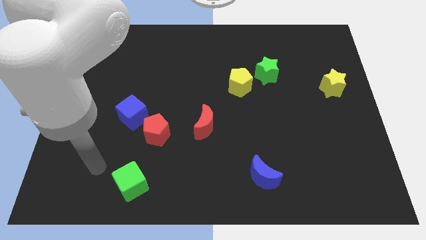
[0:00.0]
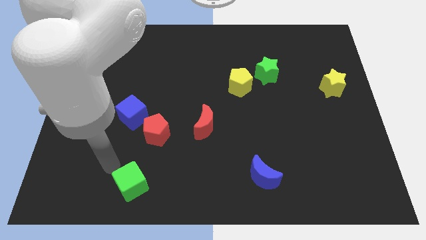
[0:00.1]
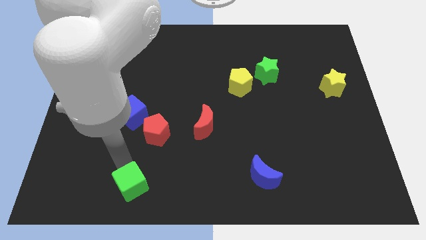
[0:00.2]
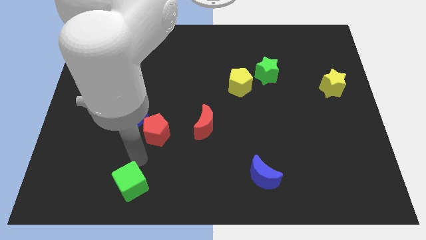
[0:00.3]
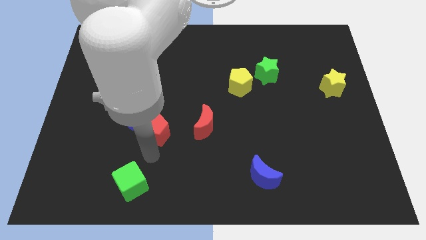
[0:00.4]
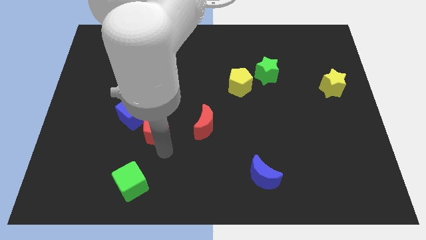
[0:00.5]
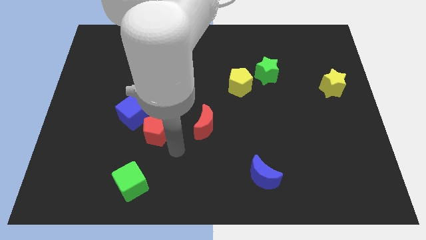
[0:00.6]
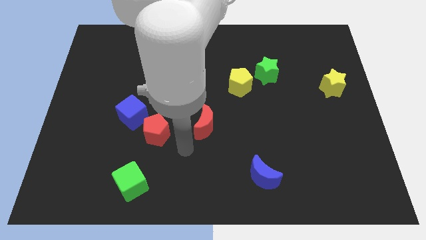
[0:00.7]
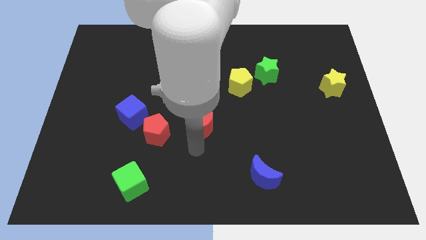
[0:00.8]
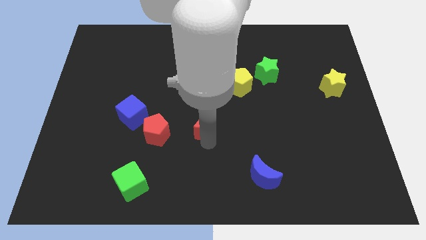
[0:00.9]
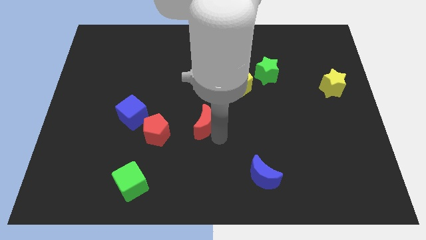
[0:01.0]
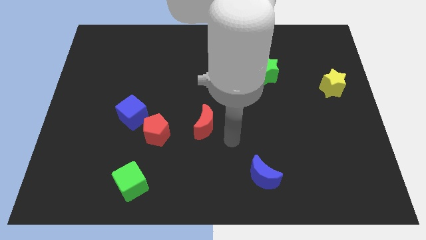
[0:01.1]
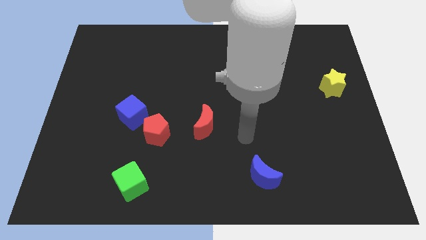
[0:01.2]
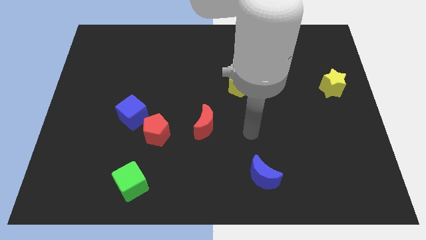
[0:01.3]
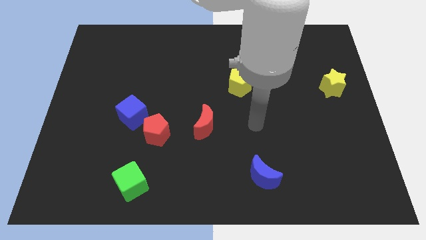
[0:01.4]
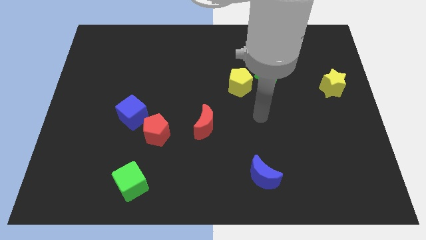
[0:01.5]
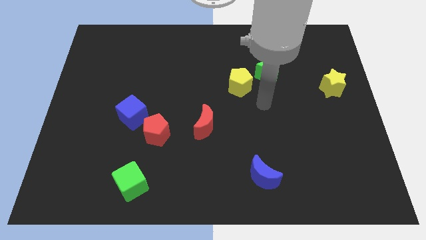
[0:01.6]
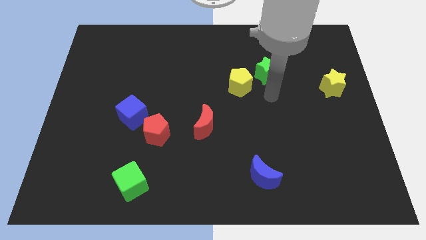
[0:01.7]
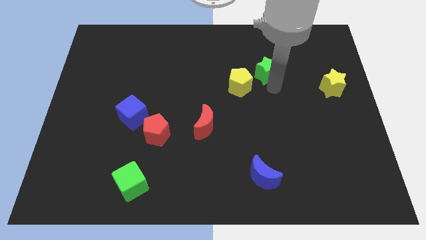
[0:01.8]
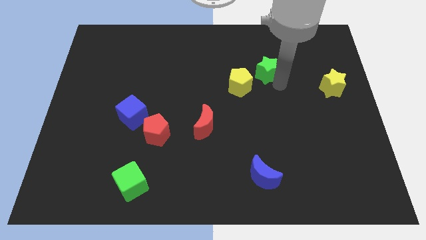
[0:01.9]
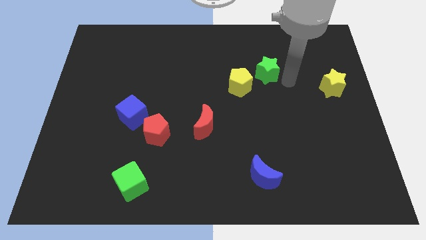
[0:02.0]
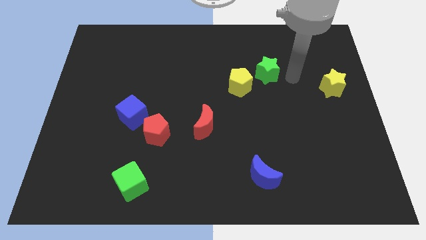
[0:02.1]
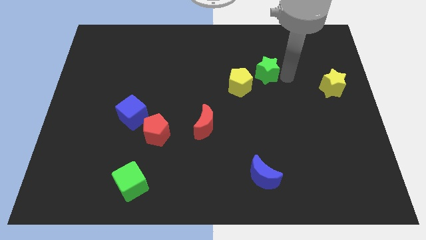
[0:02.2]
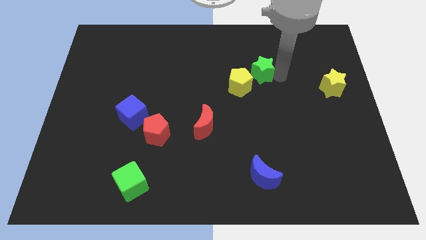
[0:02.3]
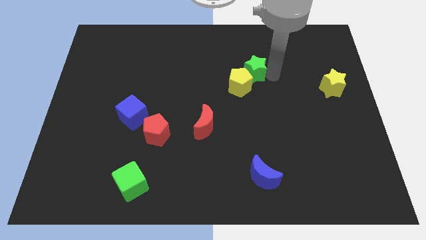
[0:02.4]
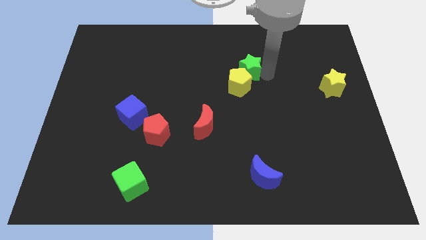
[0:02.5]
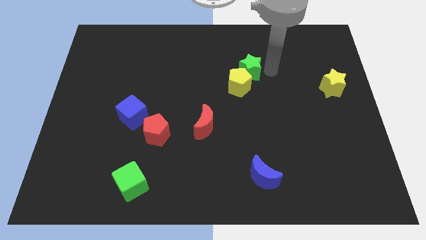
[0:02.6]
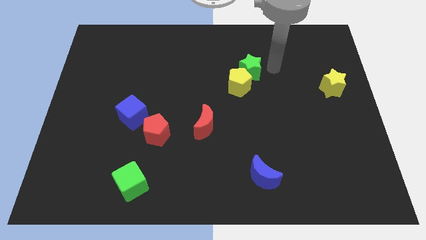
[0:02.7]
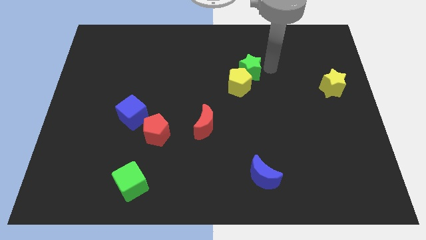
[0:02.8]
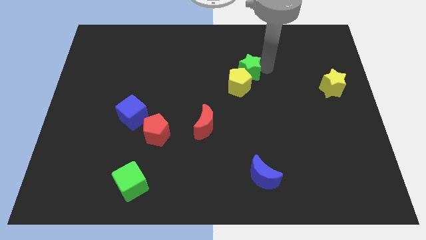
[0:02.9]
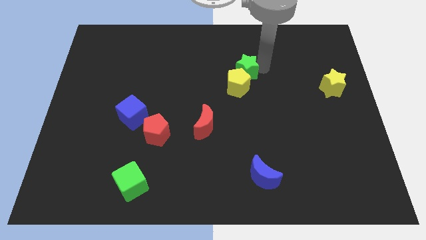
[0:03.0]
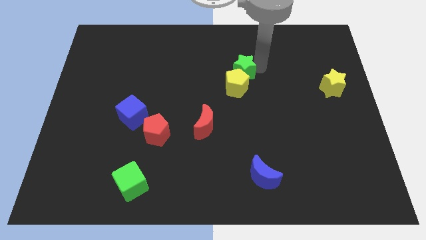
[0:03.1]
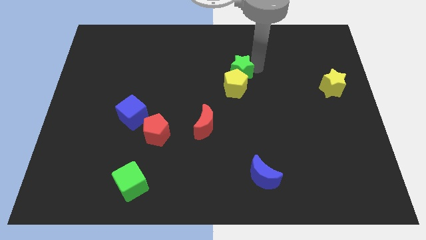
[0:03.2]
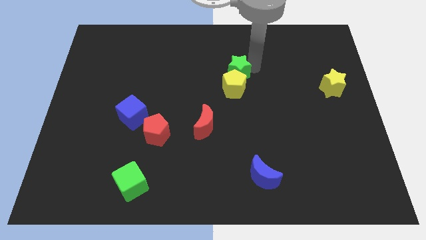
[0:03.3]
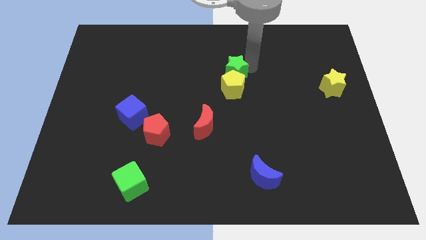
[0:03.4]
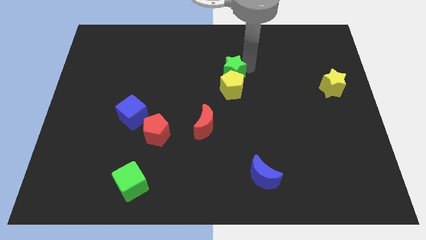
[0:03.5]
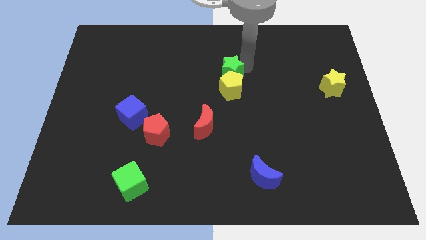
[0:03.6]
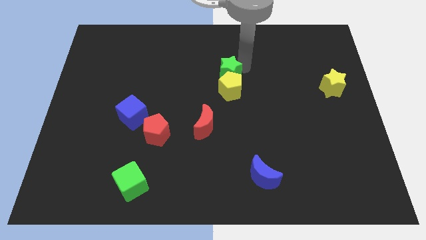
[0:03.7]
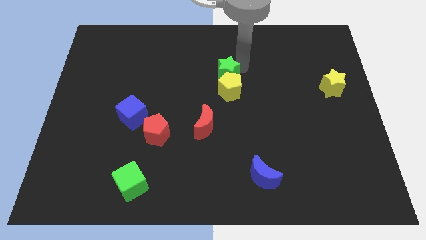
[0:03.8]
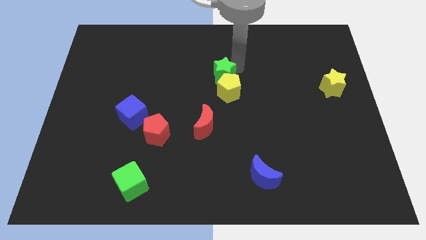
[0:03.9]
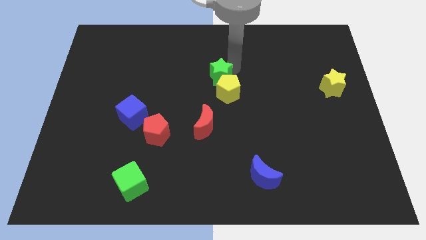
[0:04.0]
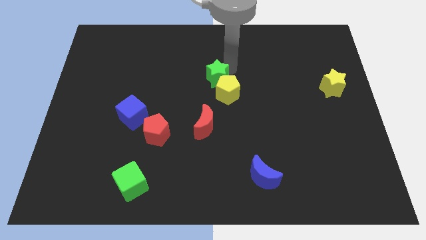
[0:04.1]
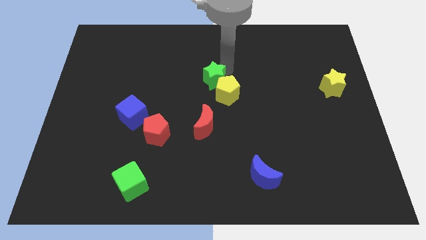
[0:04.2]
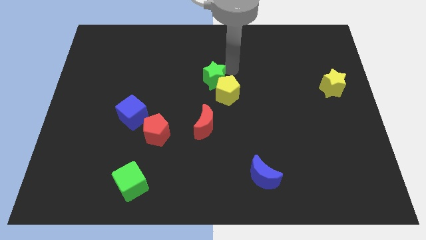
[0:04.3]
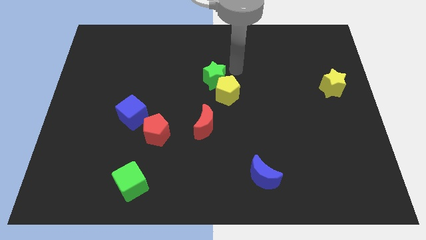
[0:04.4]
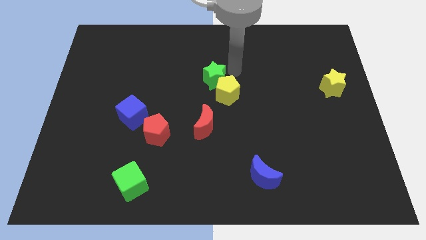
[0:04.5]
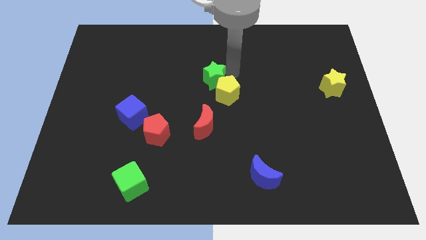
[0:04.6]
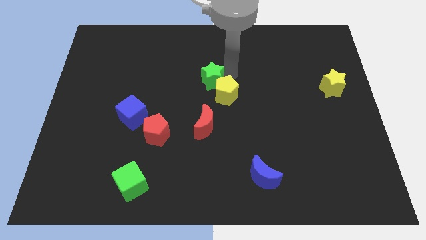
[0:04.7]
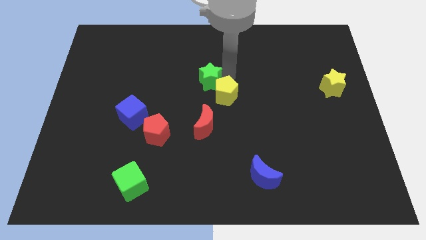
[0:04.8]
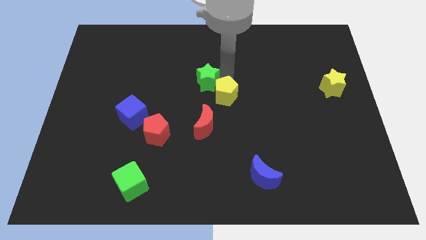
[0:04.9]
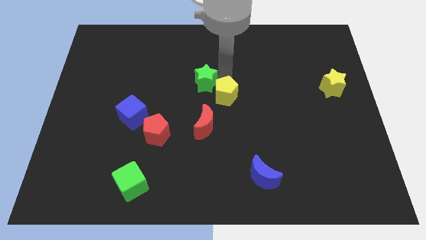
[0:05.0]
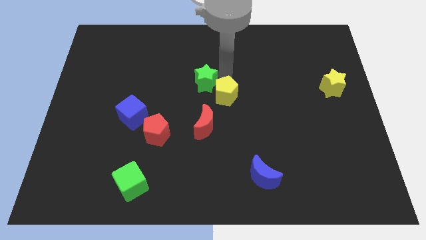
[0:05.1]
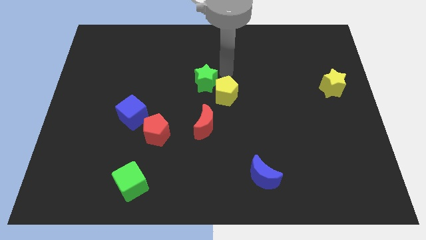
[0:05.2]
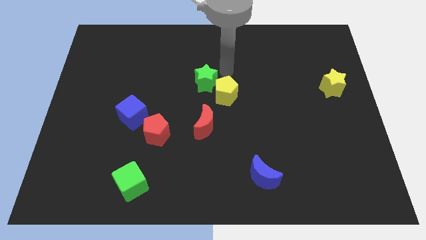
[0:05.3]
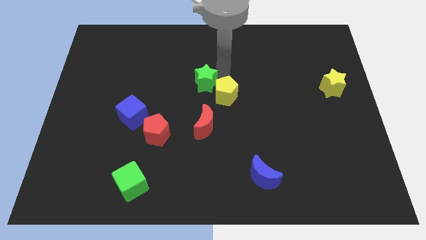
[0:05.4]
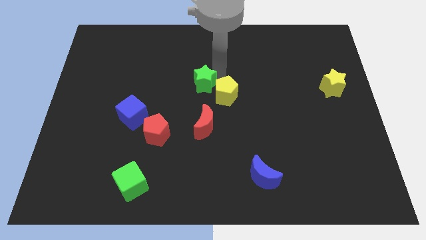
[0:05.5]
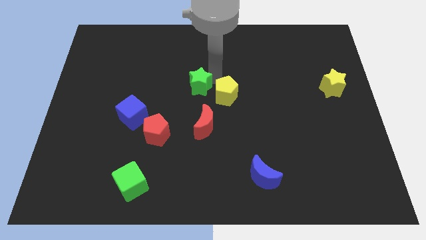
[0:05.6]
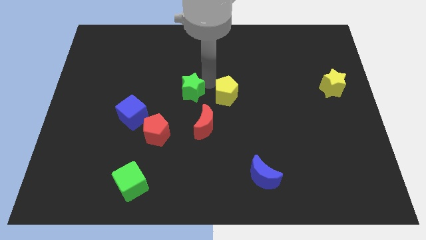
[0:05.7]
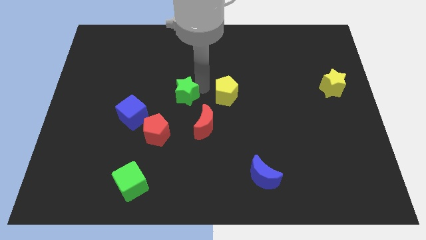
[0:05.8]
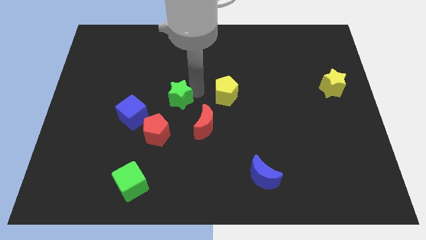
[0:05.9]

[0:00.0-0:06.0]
push the green star to the top side of the red pentagon

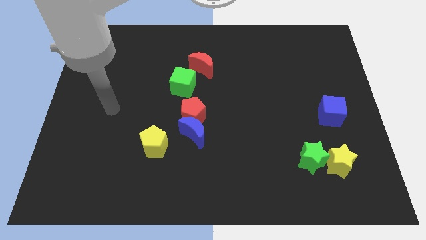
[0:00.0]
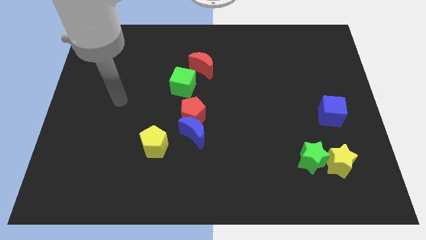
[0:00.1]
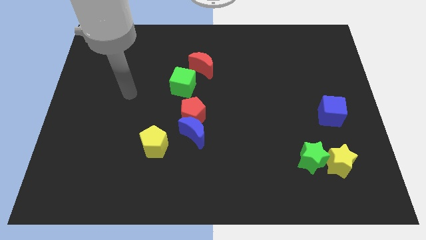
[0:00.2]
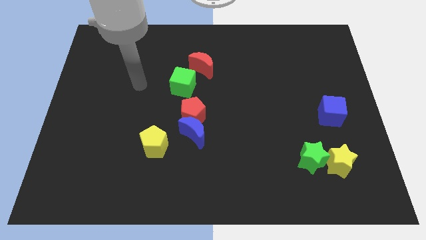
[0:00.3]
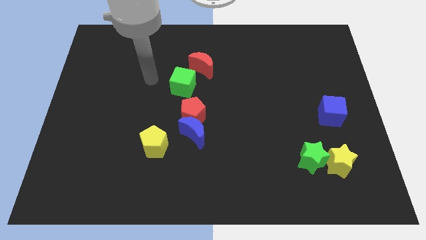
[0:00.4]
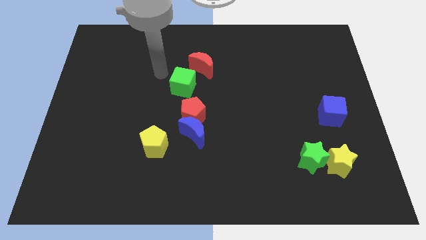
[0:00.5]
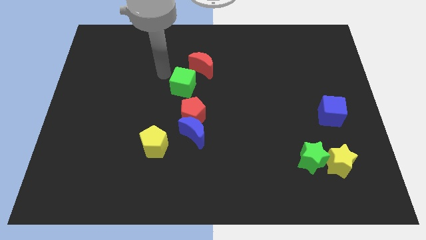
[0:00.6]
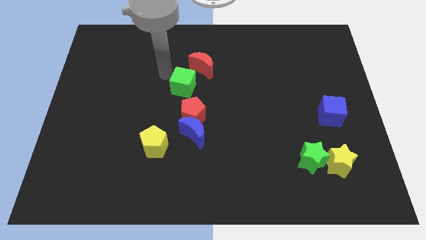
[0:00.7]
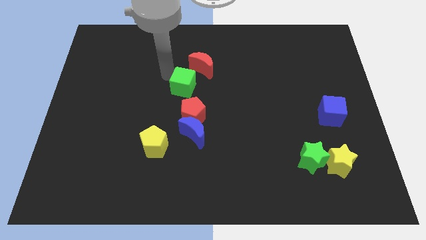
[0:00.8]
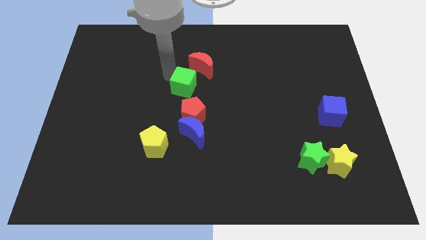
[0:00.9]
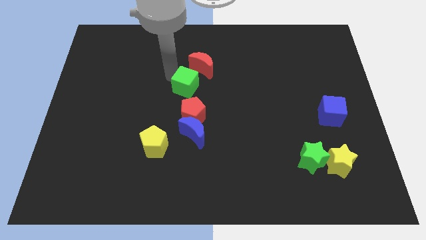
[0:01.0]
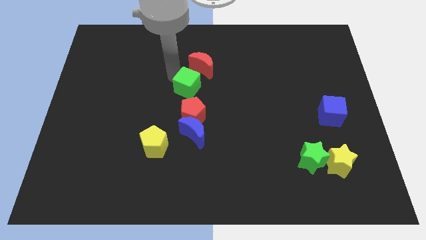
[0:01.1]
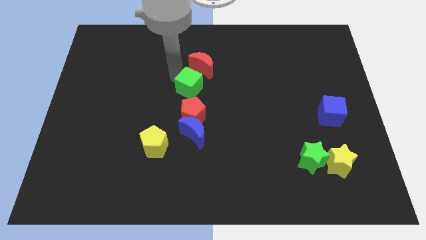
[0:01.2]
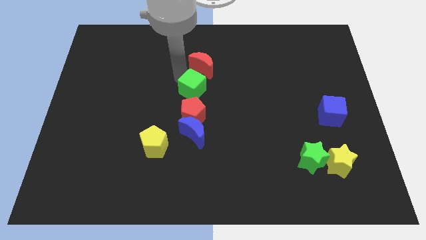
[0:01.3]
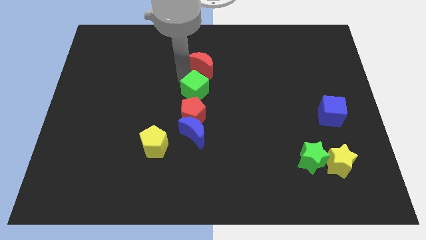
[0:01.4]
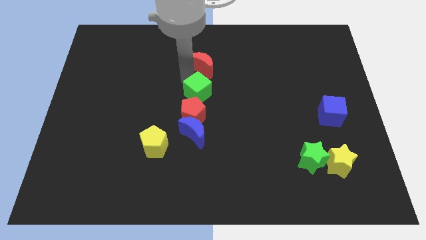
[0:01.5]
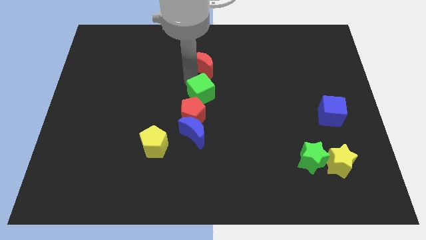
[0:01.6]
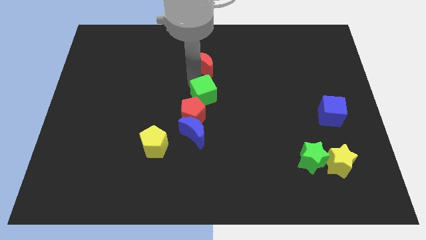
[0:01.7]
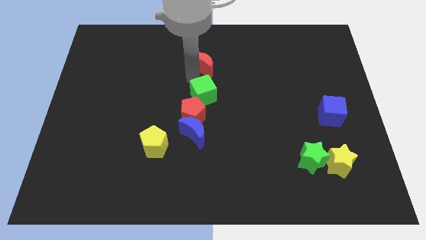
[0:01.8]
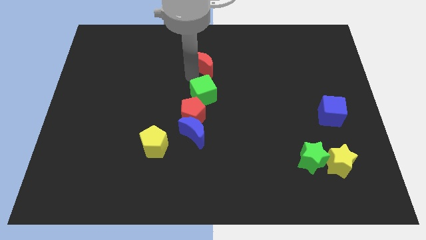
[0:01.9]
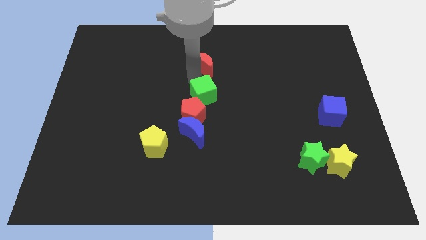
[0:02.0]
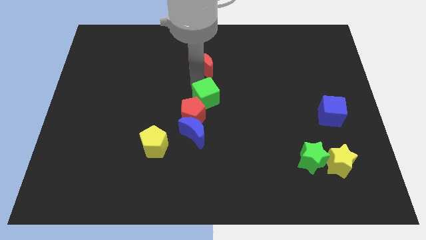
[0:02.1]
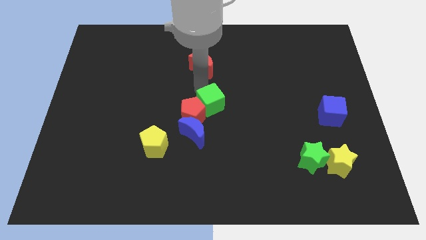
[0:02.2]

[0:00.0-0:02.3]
put the green cube to the top right side of the blue moon
